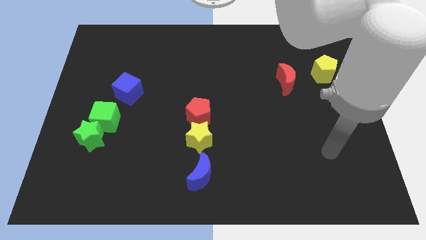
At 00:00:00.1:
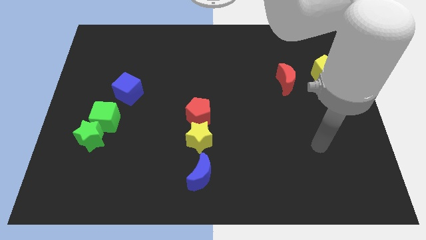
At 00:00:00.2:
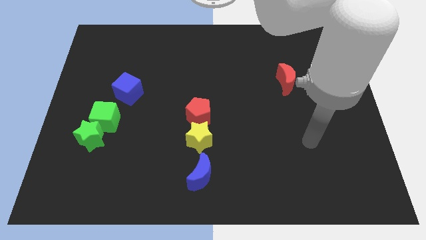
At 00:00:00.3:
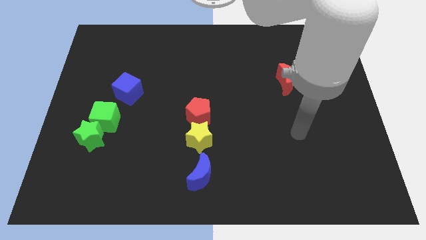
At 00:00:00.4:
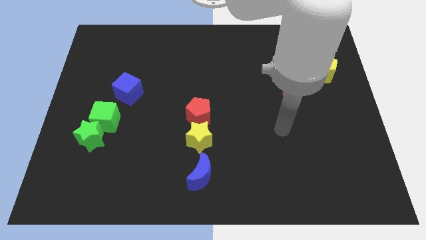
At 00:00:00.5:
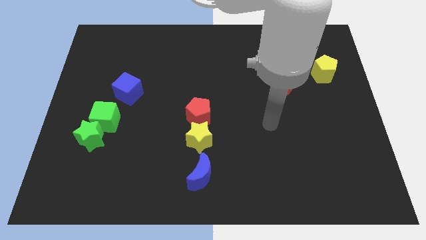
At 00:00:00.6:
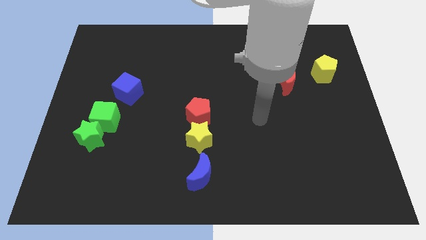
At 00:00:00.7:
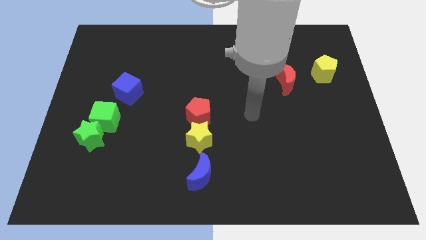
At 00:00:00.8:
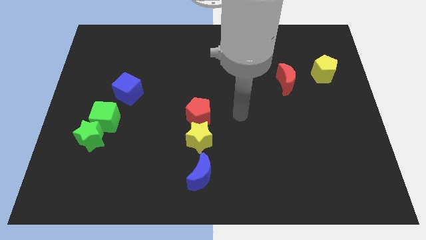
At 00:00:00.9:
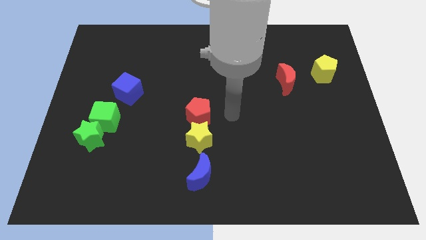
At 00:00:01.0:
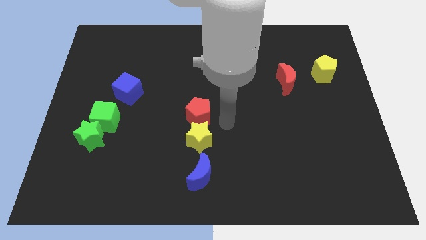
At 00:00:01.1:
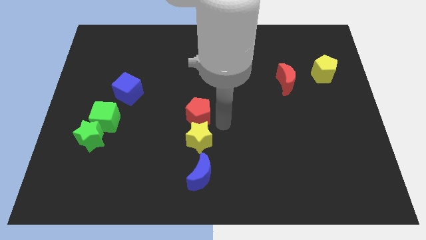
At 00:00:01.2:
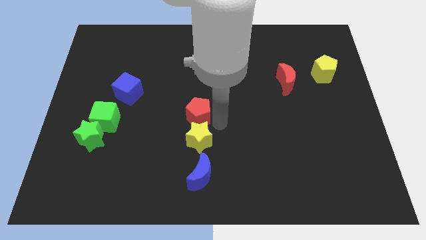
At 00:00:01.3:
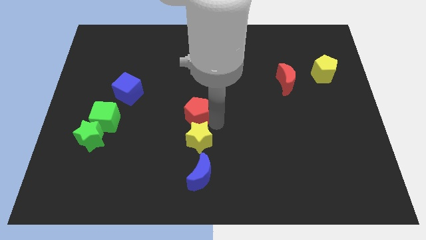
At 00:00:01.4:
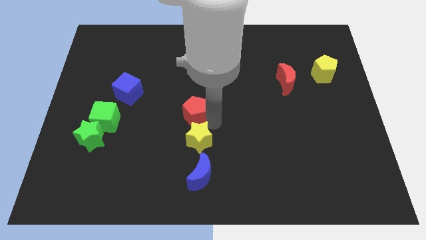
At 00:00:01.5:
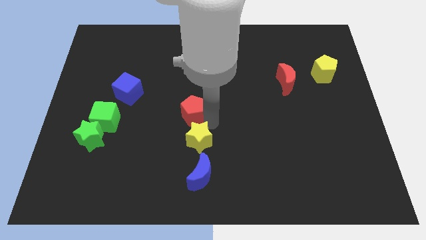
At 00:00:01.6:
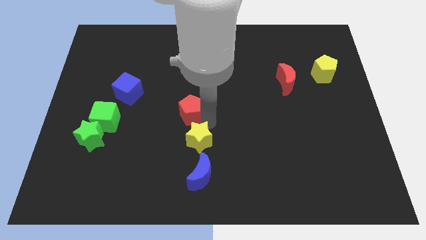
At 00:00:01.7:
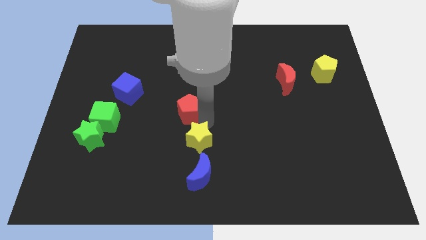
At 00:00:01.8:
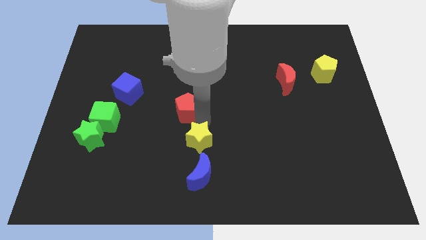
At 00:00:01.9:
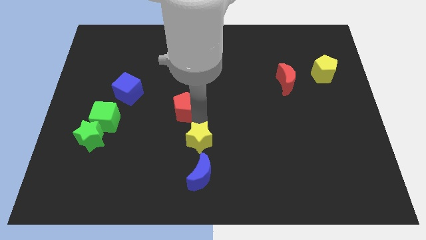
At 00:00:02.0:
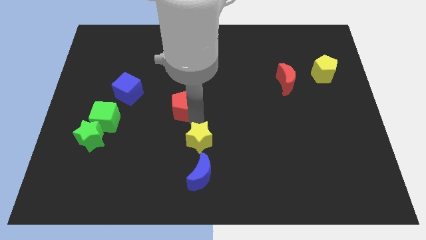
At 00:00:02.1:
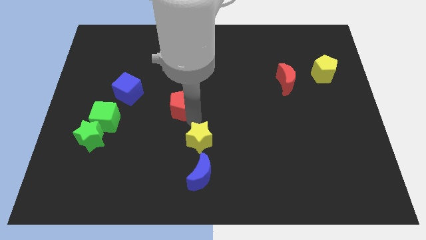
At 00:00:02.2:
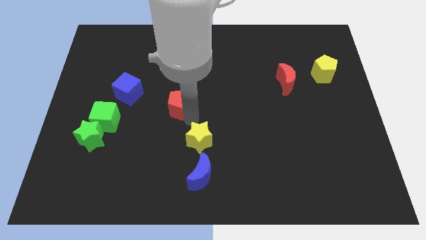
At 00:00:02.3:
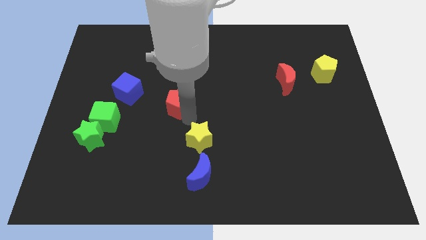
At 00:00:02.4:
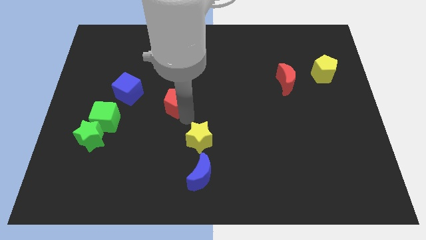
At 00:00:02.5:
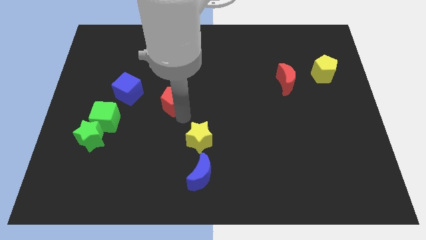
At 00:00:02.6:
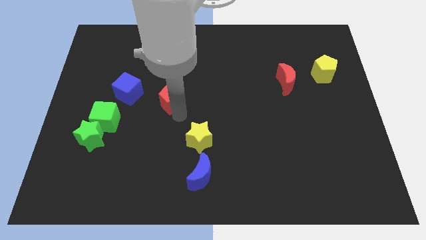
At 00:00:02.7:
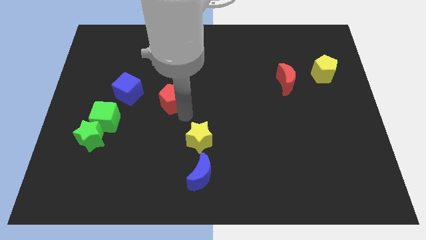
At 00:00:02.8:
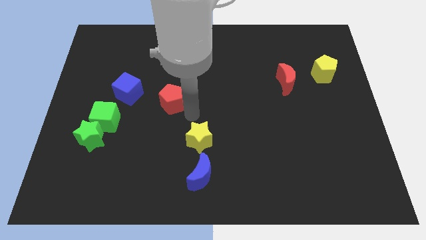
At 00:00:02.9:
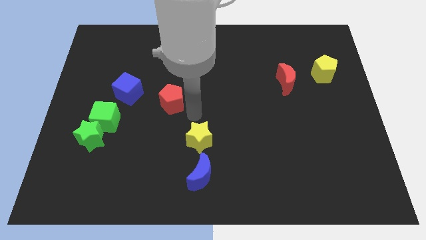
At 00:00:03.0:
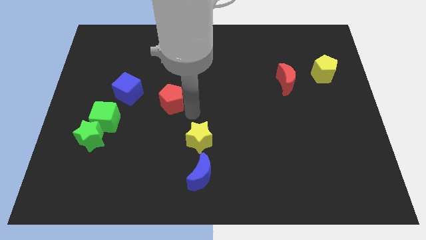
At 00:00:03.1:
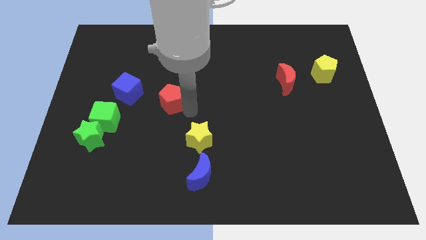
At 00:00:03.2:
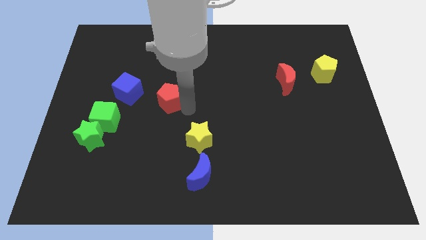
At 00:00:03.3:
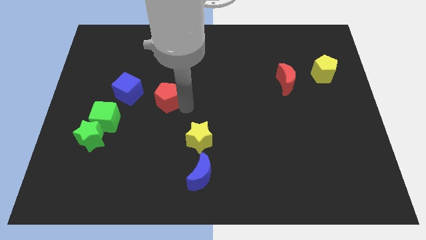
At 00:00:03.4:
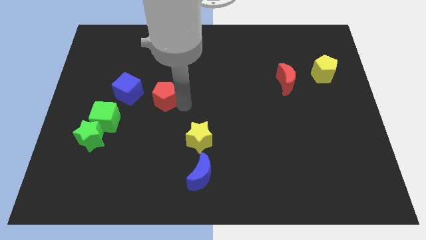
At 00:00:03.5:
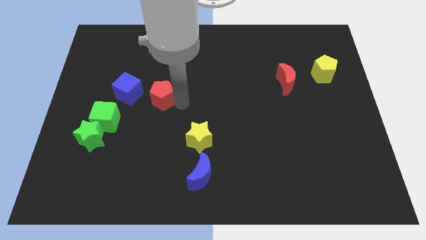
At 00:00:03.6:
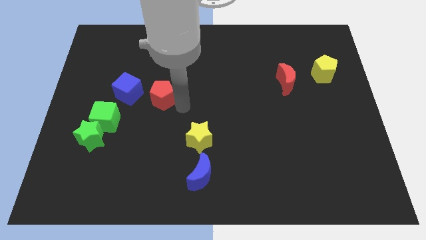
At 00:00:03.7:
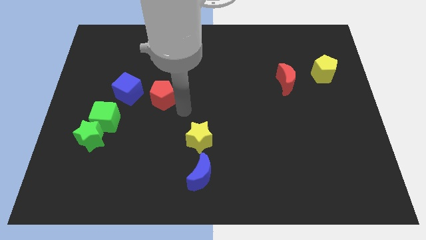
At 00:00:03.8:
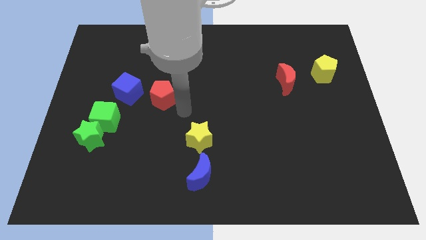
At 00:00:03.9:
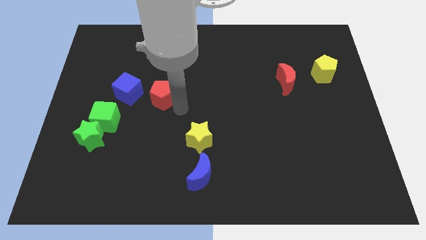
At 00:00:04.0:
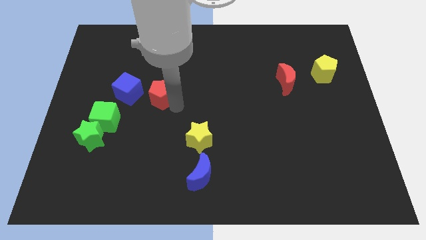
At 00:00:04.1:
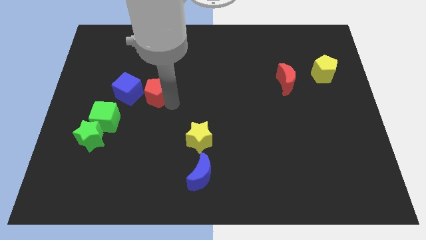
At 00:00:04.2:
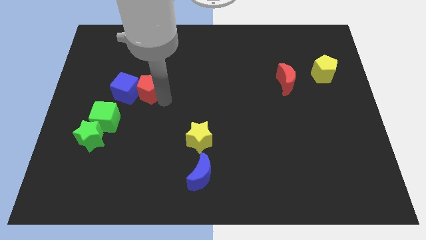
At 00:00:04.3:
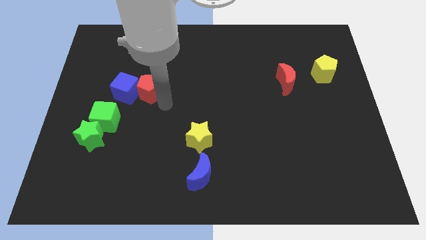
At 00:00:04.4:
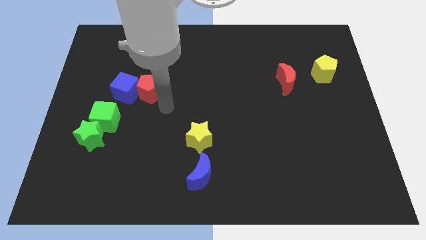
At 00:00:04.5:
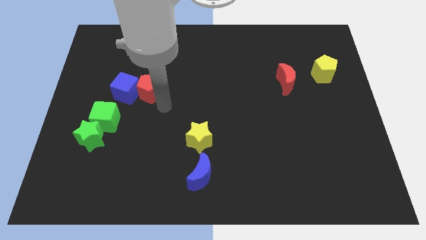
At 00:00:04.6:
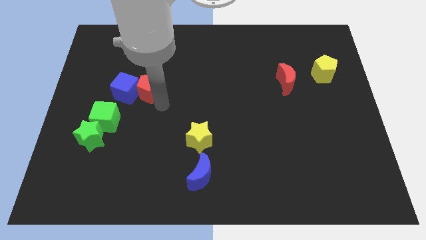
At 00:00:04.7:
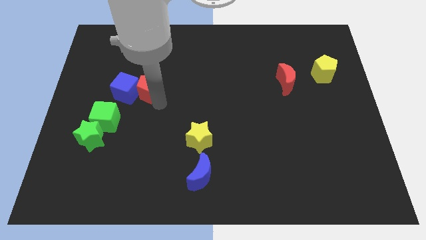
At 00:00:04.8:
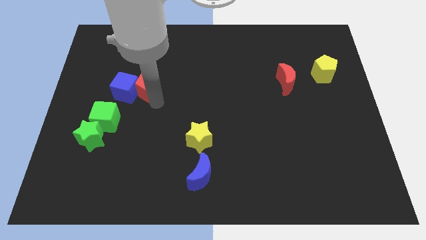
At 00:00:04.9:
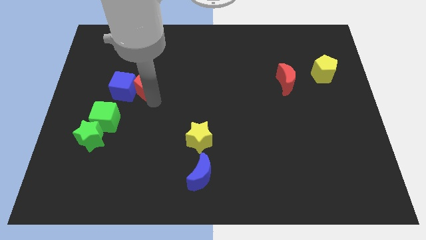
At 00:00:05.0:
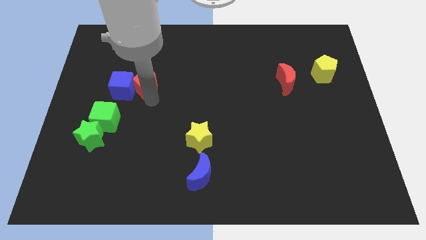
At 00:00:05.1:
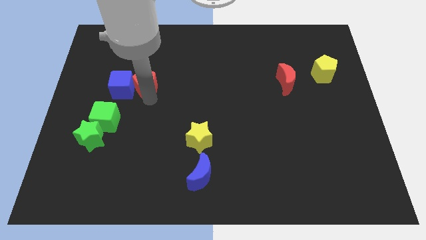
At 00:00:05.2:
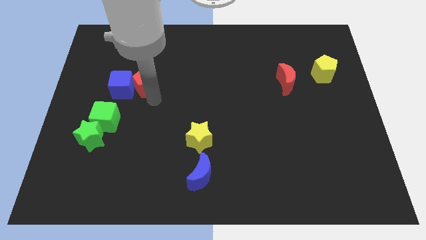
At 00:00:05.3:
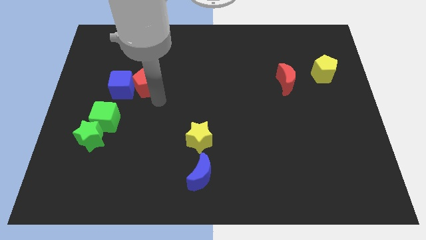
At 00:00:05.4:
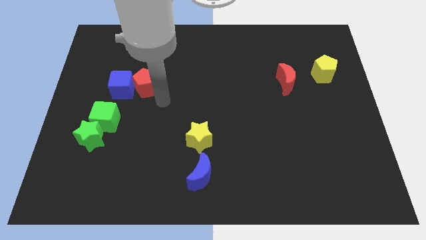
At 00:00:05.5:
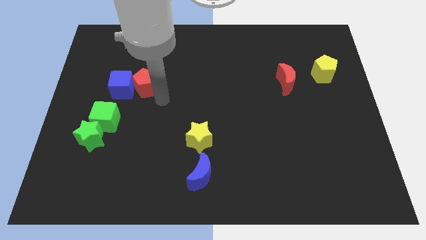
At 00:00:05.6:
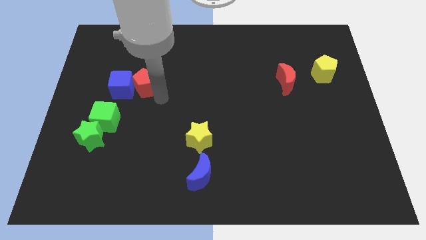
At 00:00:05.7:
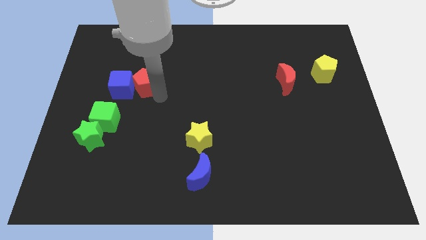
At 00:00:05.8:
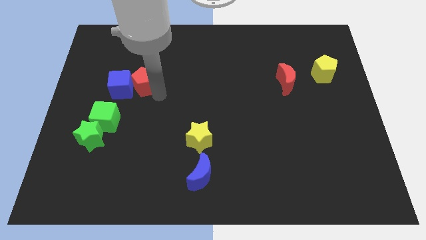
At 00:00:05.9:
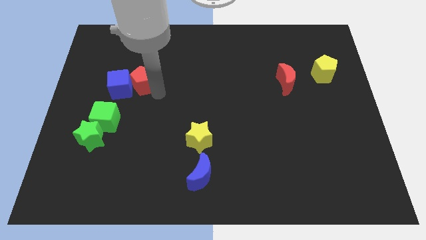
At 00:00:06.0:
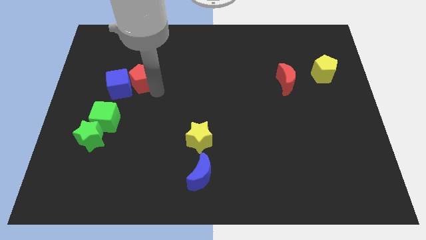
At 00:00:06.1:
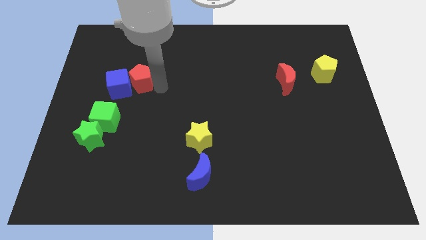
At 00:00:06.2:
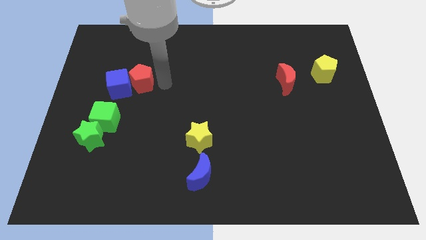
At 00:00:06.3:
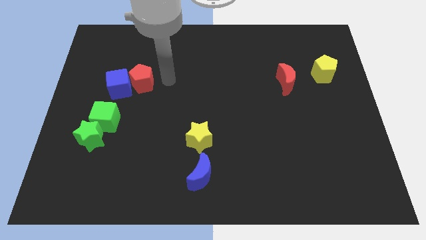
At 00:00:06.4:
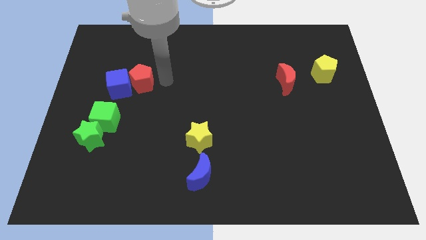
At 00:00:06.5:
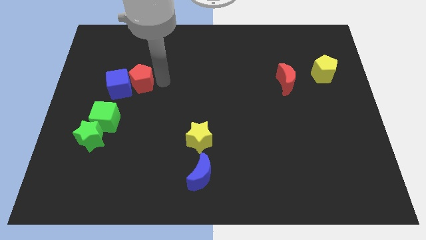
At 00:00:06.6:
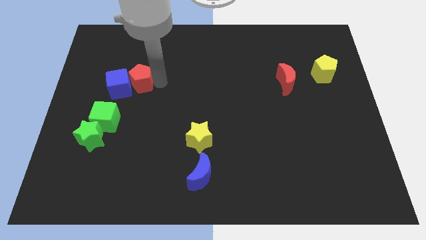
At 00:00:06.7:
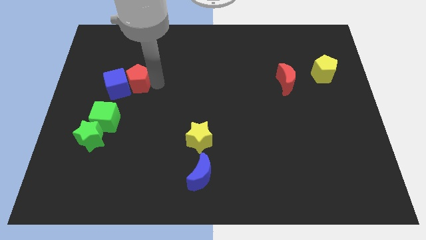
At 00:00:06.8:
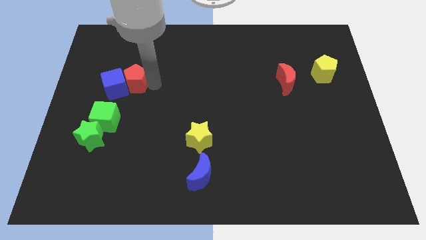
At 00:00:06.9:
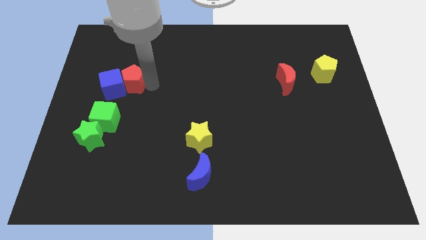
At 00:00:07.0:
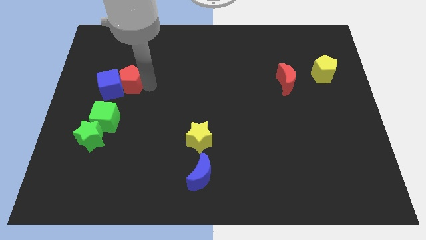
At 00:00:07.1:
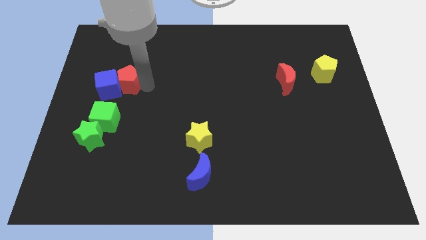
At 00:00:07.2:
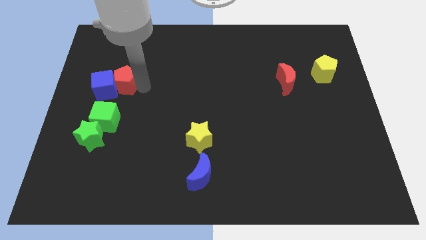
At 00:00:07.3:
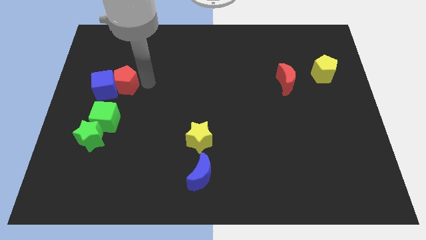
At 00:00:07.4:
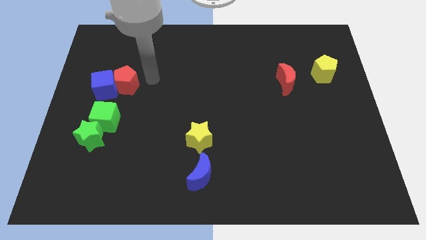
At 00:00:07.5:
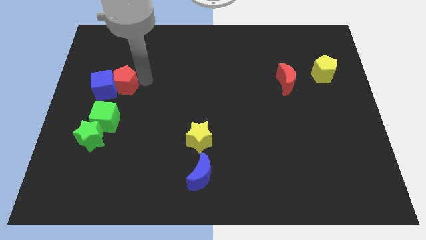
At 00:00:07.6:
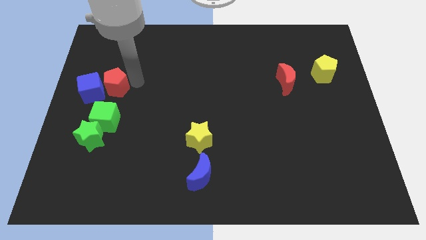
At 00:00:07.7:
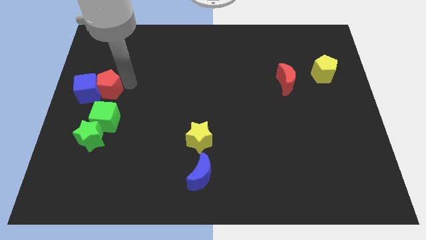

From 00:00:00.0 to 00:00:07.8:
push the red pentagon to the center left
